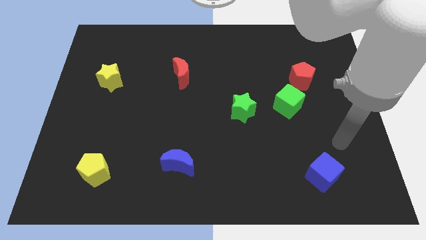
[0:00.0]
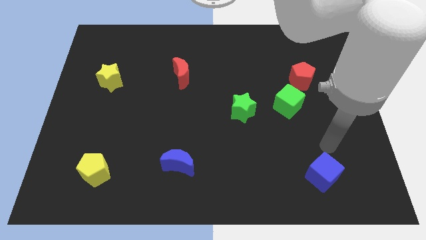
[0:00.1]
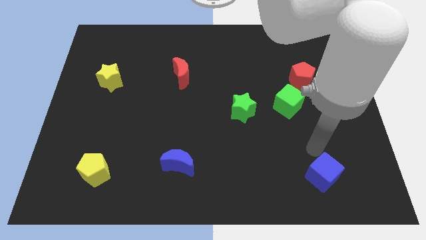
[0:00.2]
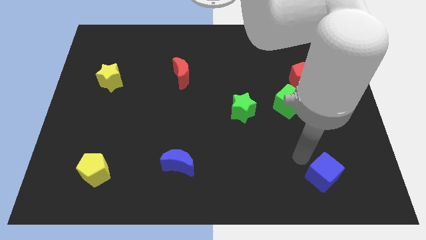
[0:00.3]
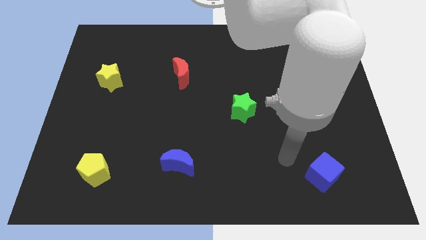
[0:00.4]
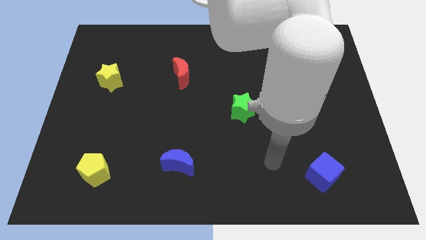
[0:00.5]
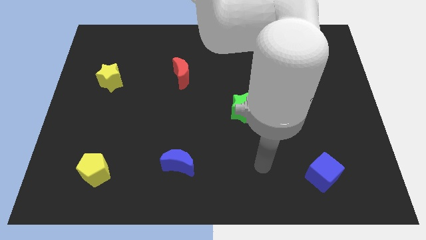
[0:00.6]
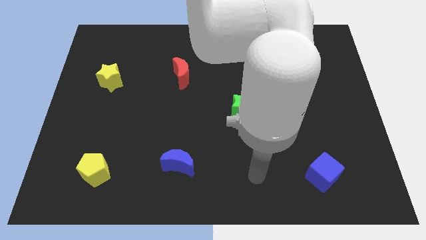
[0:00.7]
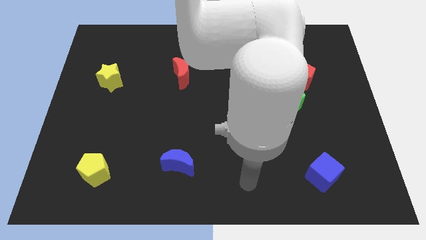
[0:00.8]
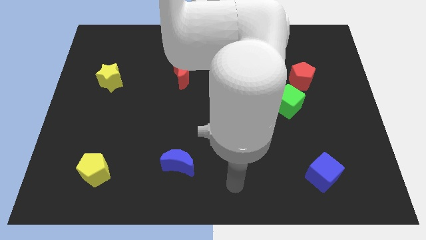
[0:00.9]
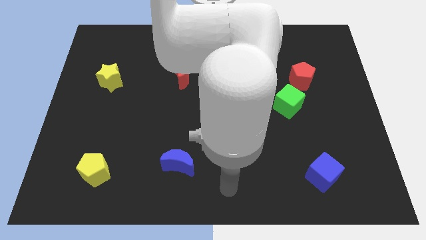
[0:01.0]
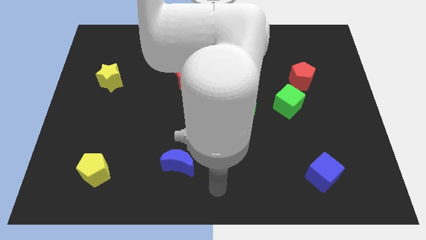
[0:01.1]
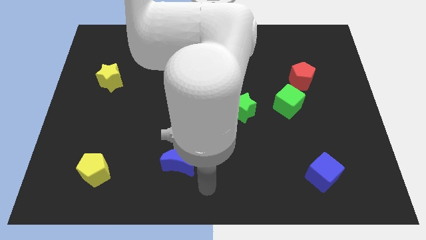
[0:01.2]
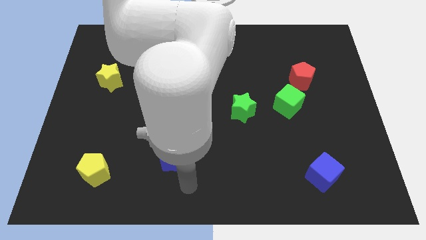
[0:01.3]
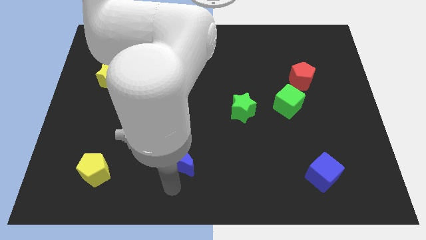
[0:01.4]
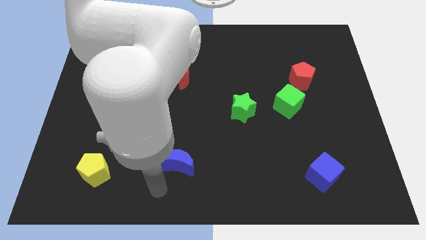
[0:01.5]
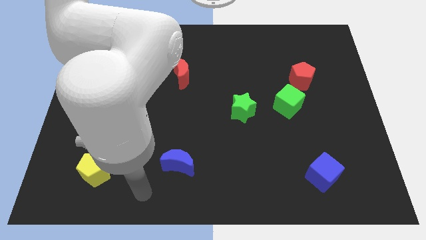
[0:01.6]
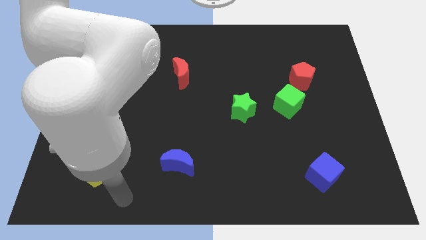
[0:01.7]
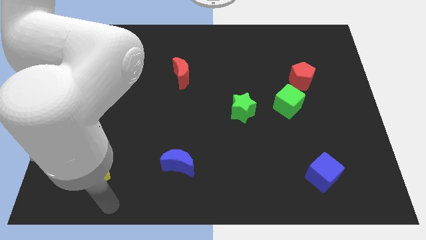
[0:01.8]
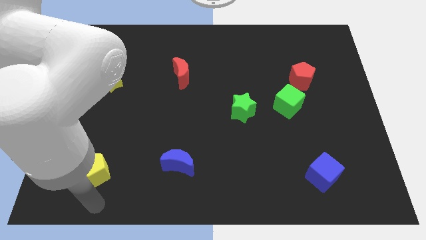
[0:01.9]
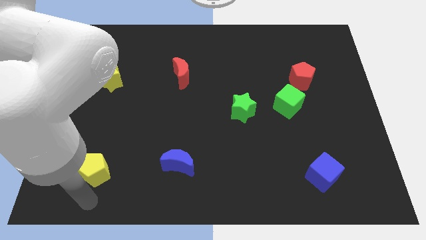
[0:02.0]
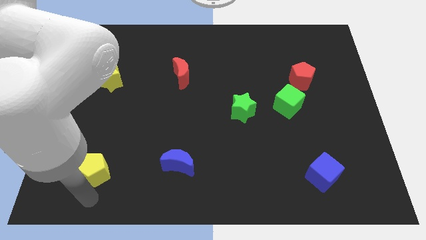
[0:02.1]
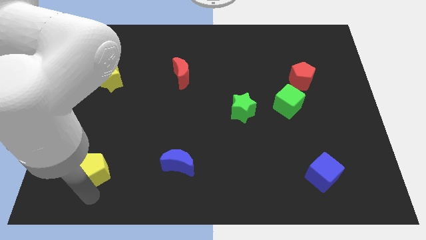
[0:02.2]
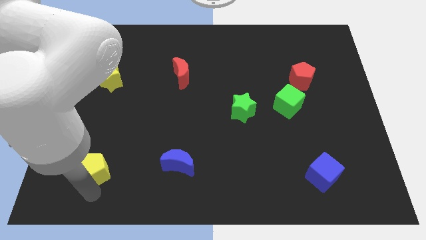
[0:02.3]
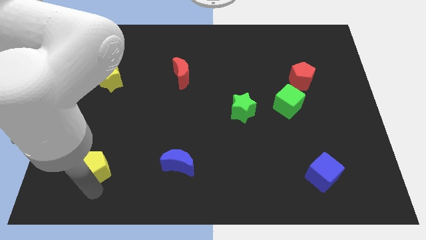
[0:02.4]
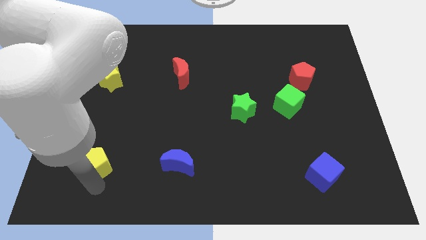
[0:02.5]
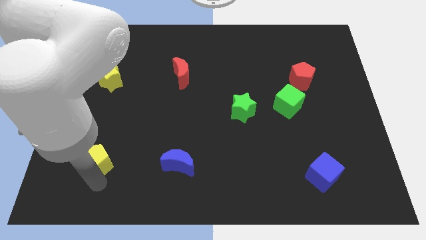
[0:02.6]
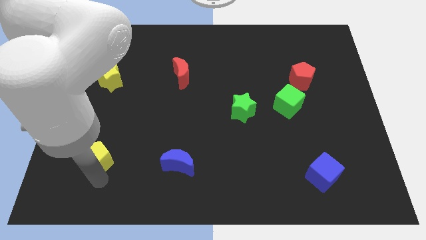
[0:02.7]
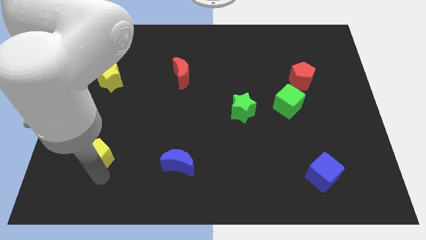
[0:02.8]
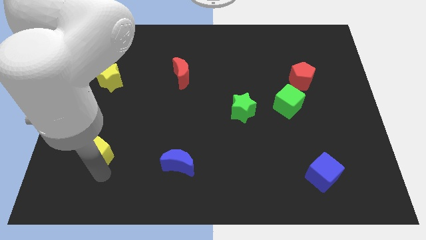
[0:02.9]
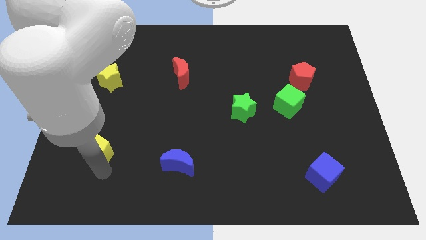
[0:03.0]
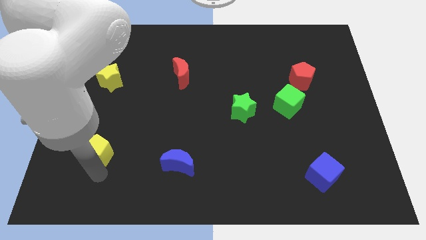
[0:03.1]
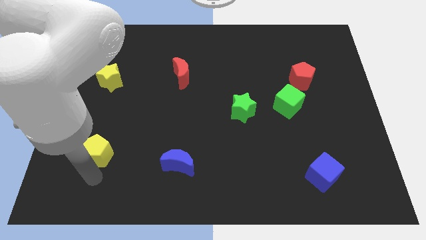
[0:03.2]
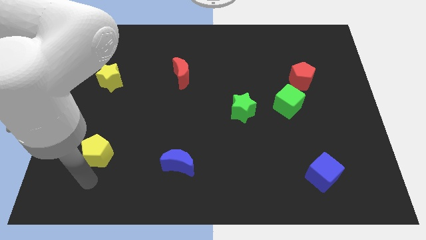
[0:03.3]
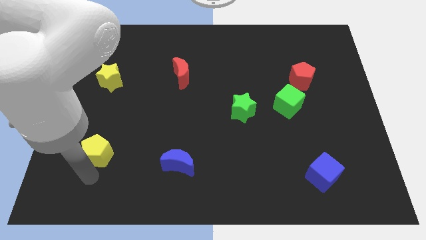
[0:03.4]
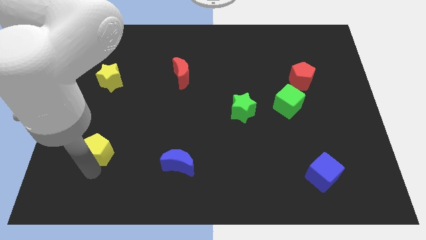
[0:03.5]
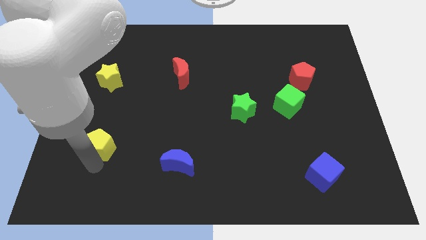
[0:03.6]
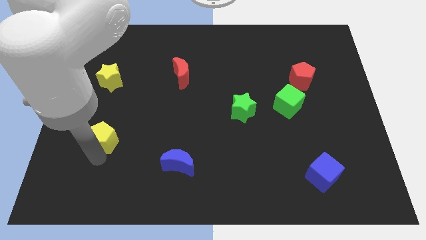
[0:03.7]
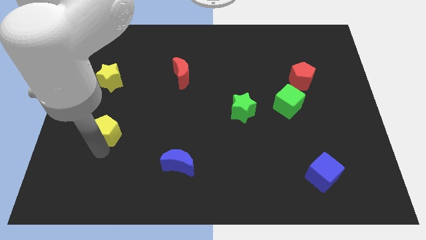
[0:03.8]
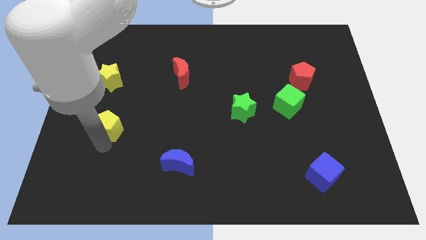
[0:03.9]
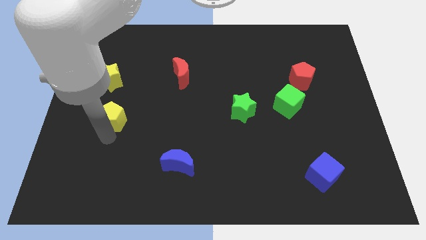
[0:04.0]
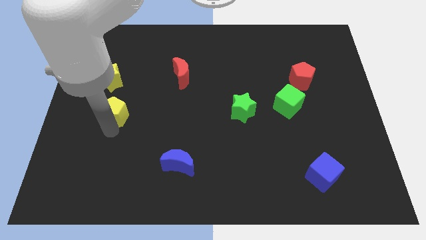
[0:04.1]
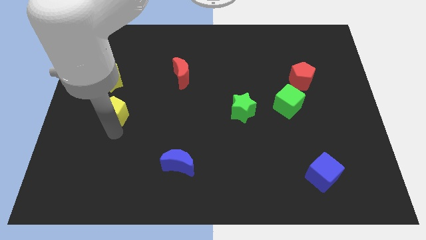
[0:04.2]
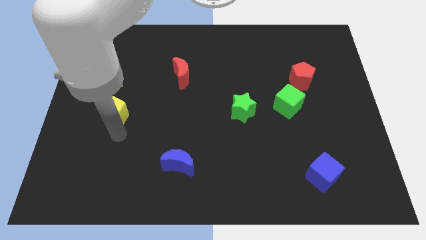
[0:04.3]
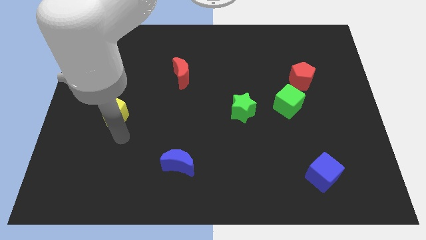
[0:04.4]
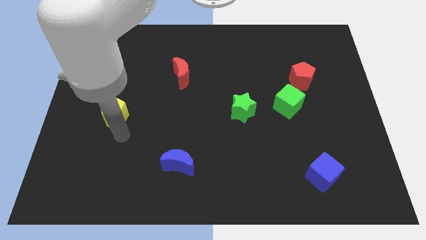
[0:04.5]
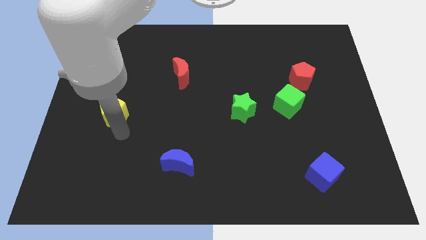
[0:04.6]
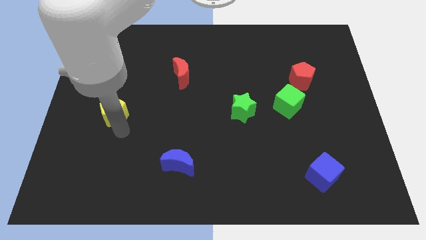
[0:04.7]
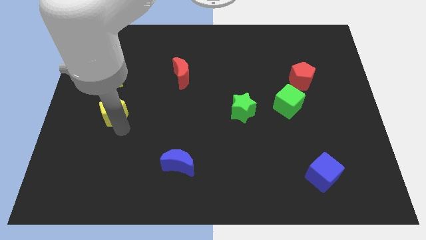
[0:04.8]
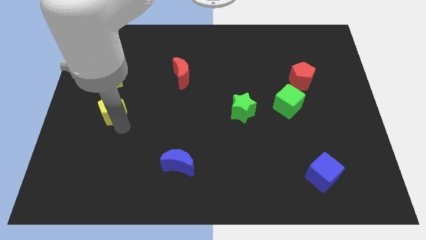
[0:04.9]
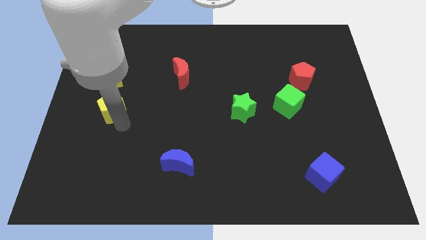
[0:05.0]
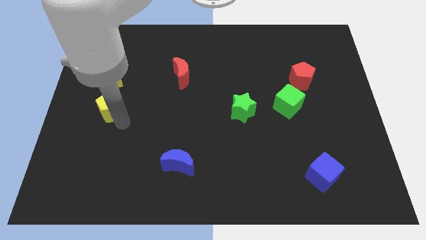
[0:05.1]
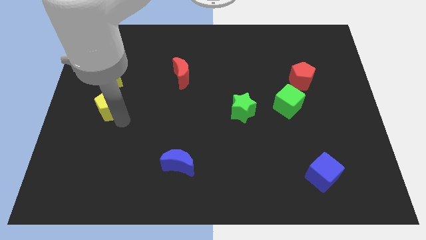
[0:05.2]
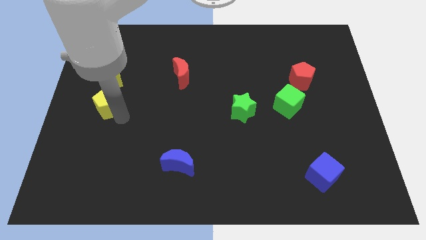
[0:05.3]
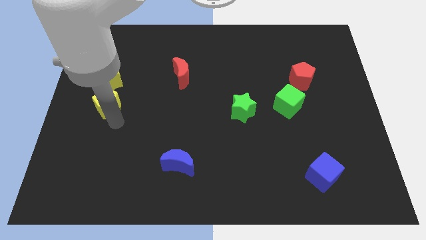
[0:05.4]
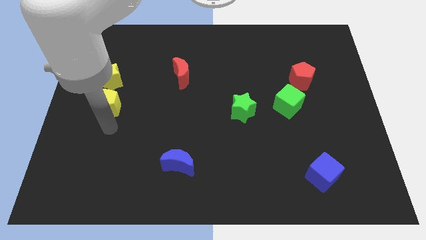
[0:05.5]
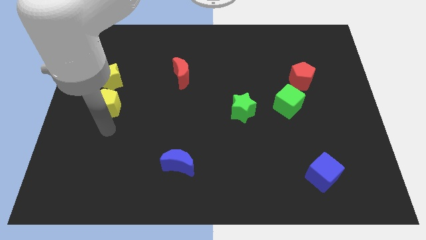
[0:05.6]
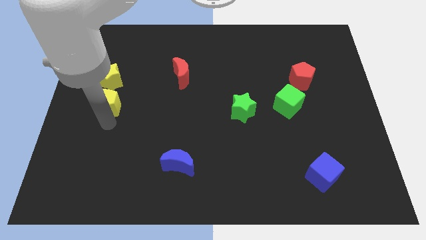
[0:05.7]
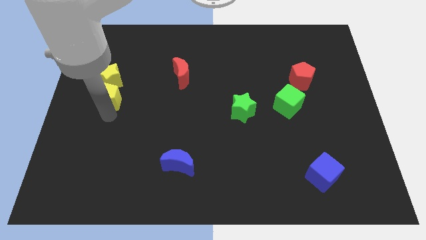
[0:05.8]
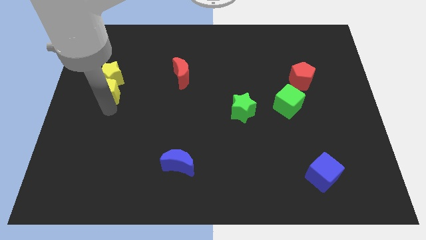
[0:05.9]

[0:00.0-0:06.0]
push the yellow pentagon to the yellow star

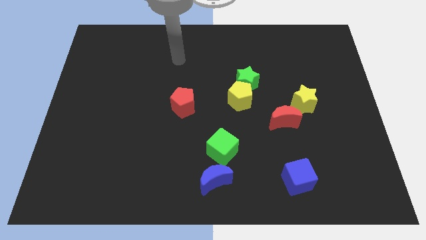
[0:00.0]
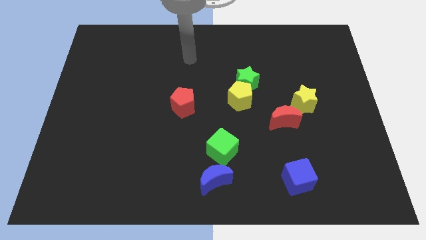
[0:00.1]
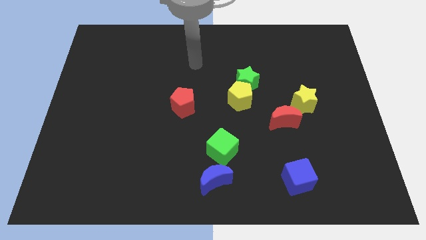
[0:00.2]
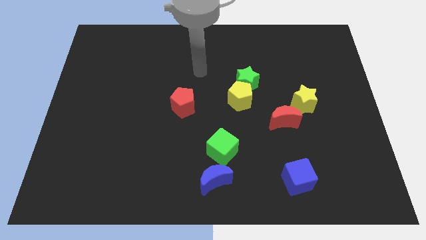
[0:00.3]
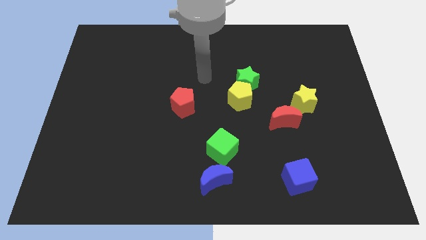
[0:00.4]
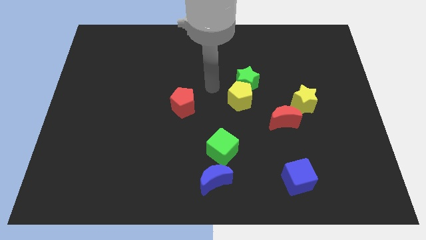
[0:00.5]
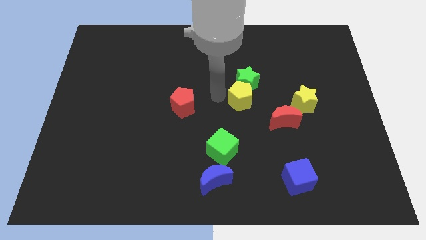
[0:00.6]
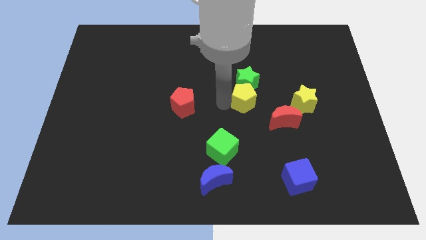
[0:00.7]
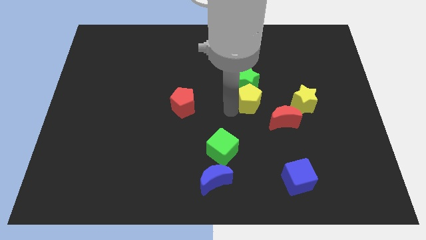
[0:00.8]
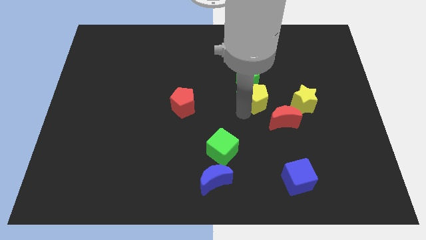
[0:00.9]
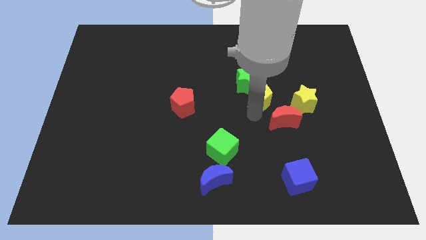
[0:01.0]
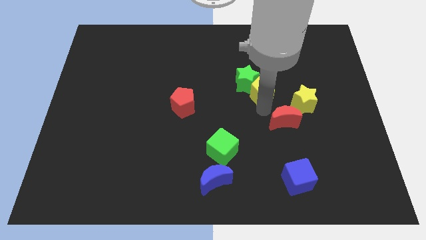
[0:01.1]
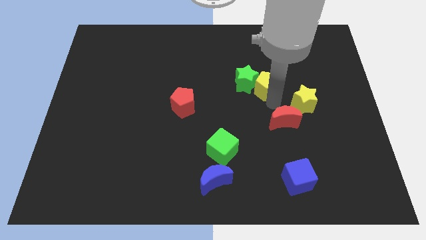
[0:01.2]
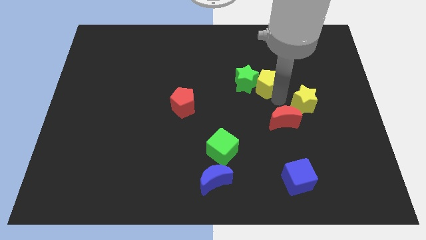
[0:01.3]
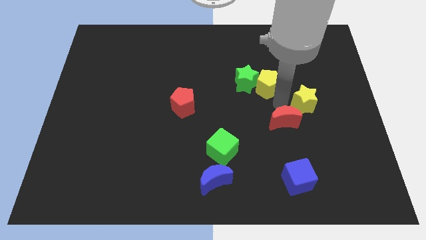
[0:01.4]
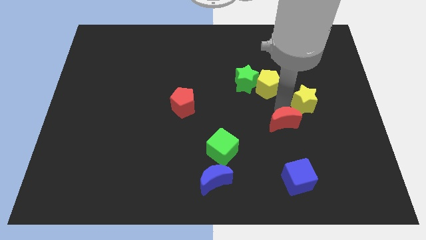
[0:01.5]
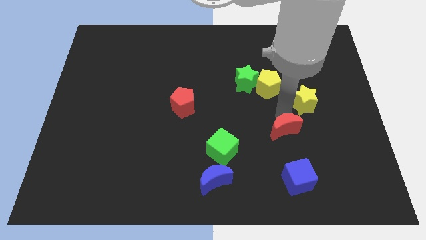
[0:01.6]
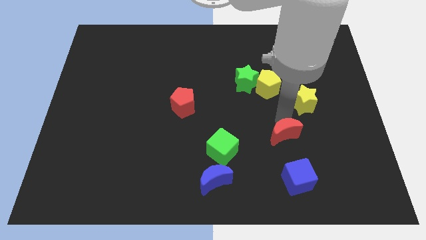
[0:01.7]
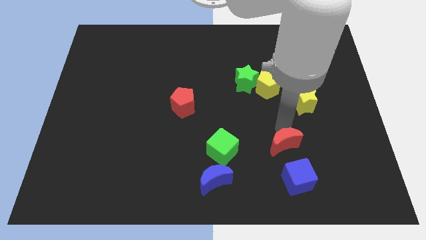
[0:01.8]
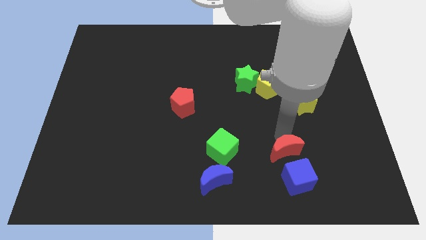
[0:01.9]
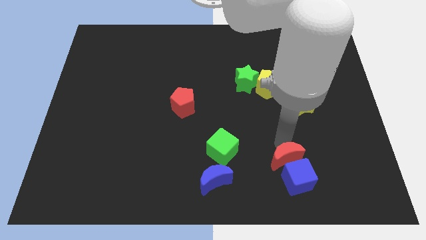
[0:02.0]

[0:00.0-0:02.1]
slide the red moon towards the blue cube
